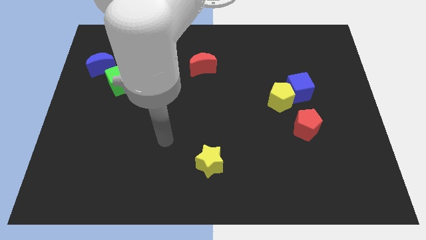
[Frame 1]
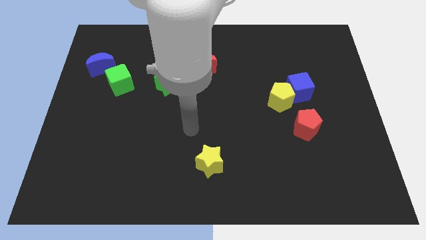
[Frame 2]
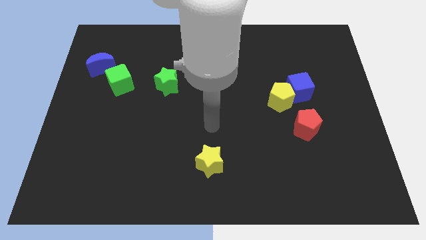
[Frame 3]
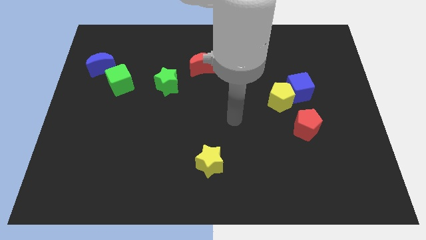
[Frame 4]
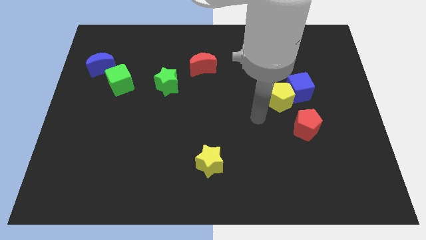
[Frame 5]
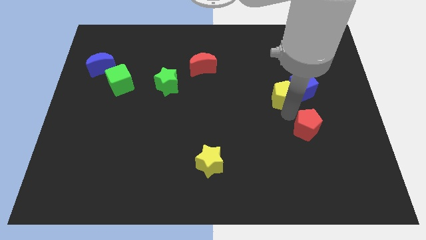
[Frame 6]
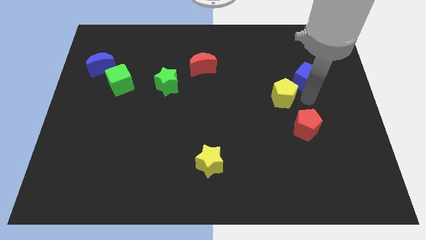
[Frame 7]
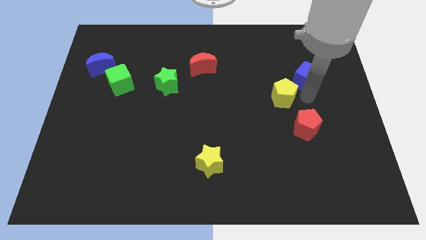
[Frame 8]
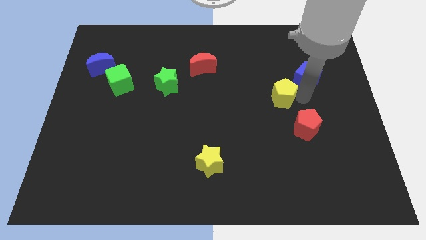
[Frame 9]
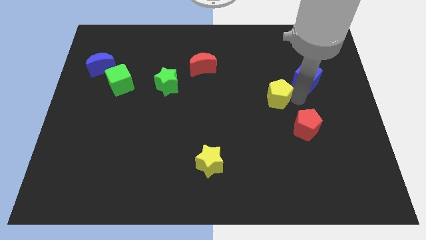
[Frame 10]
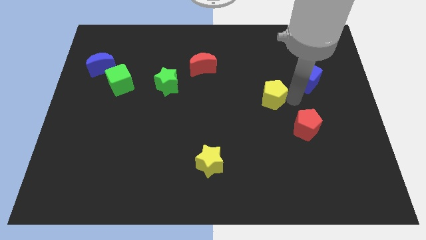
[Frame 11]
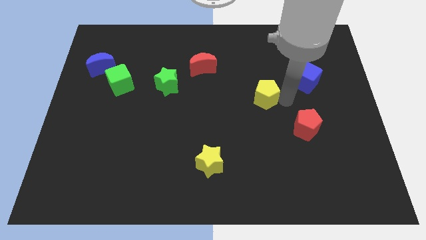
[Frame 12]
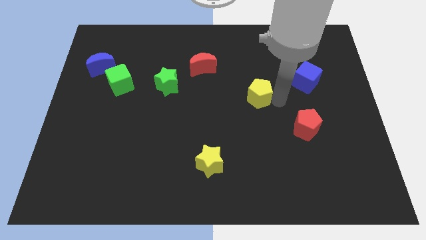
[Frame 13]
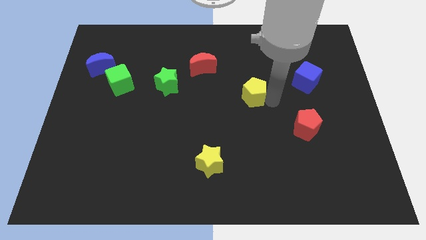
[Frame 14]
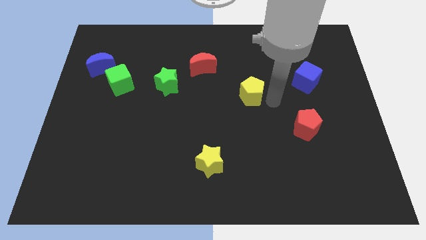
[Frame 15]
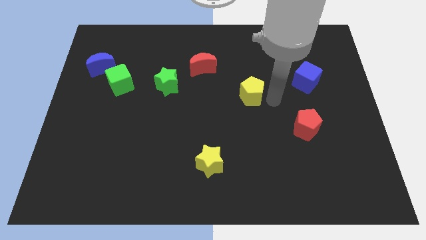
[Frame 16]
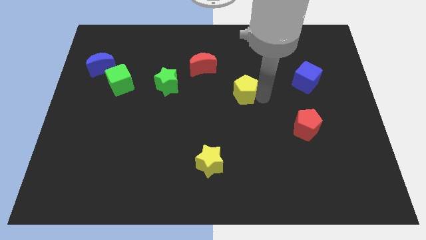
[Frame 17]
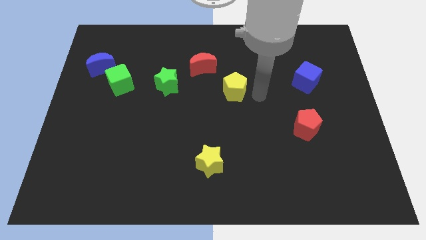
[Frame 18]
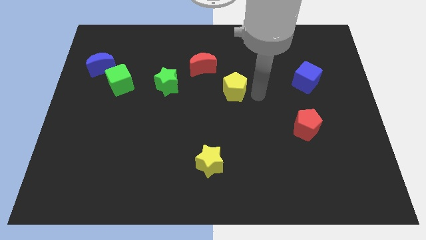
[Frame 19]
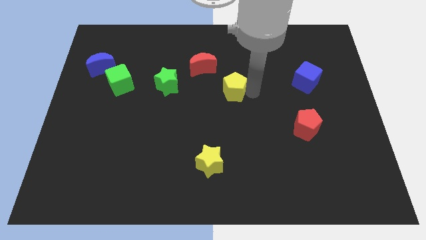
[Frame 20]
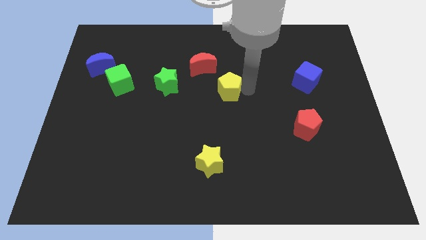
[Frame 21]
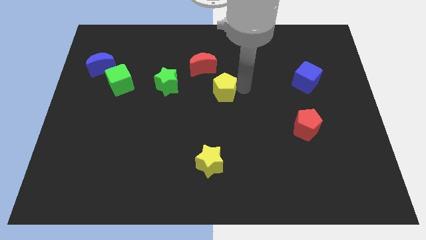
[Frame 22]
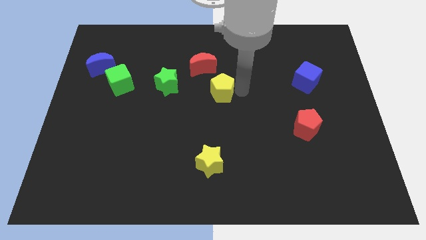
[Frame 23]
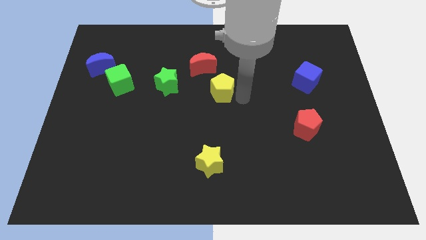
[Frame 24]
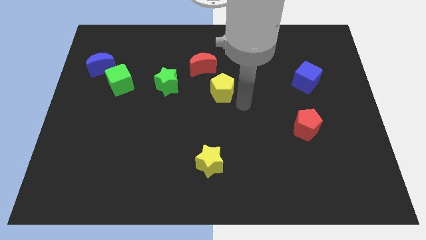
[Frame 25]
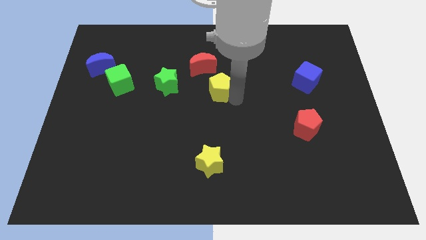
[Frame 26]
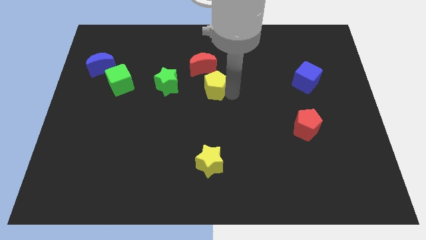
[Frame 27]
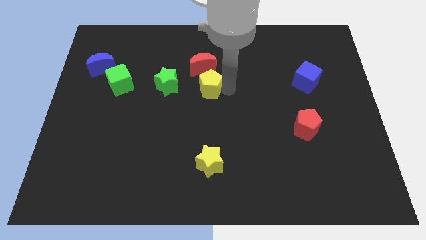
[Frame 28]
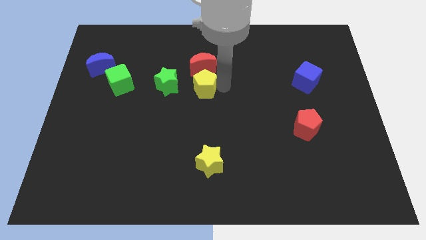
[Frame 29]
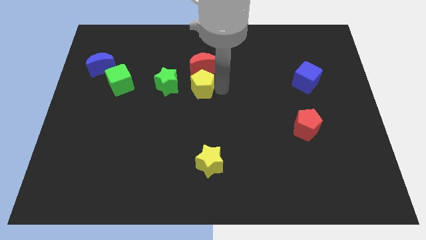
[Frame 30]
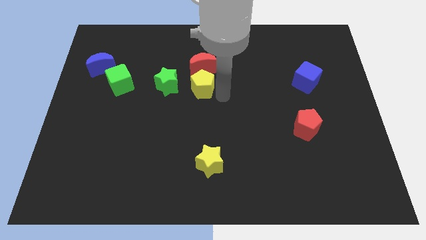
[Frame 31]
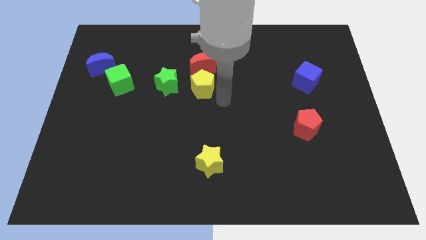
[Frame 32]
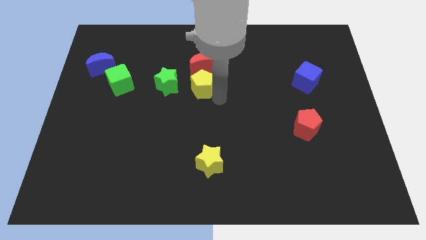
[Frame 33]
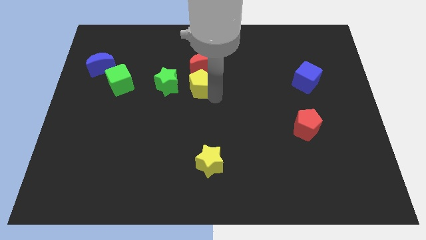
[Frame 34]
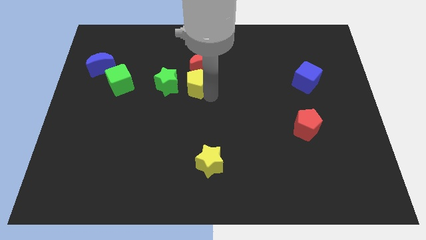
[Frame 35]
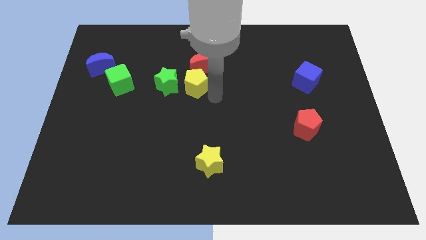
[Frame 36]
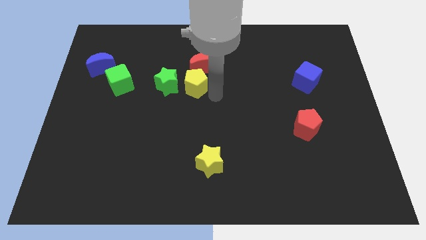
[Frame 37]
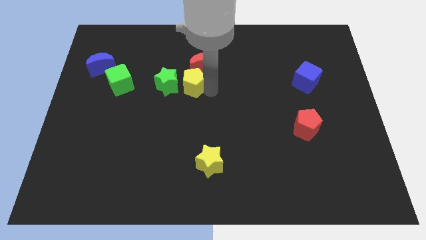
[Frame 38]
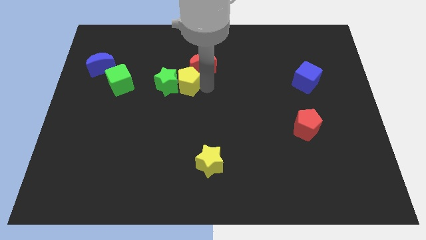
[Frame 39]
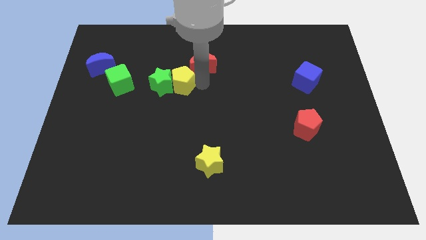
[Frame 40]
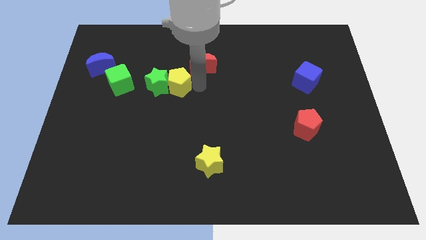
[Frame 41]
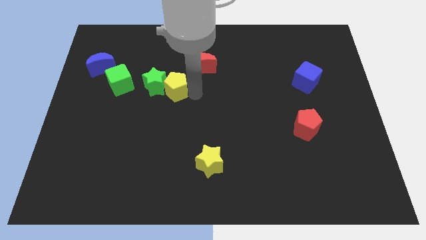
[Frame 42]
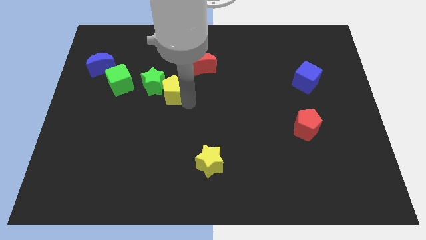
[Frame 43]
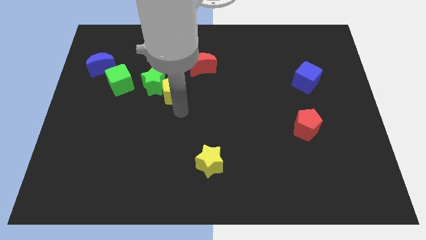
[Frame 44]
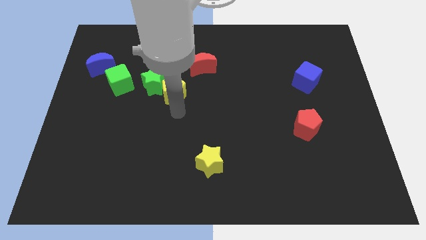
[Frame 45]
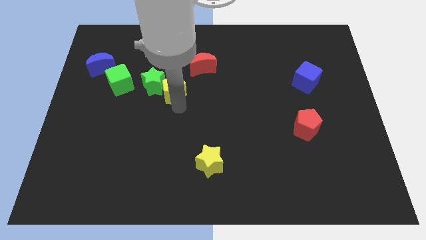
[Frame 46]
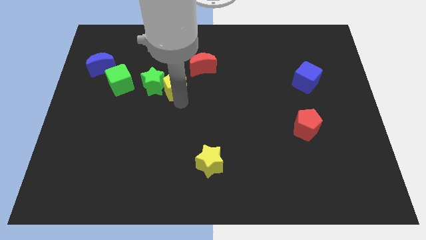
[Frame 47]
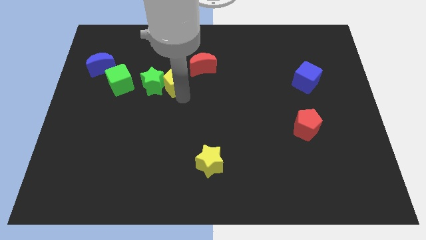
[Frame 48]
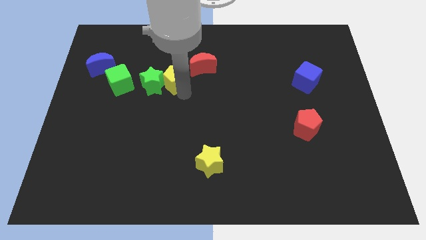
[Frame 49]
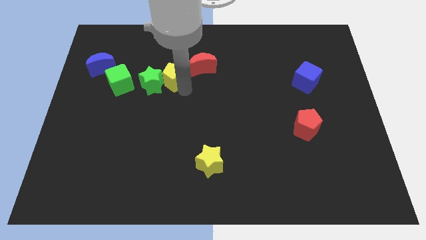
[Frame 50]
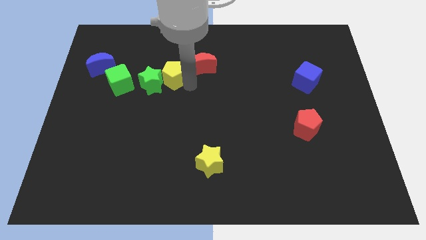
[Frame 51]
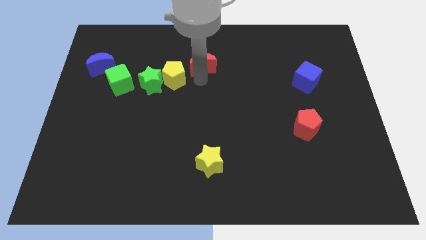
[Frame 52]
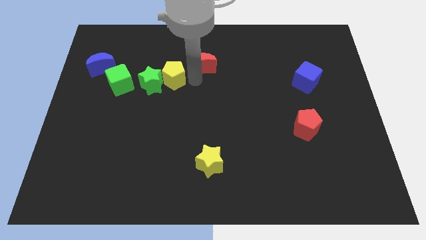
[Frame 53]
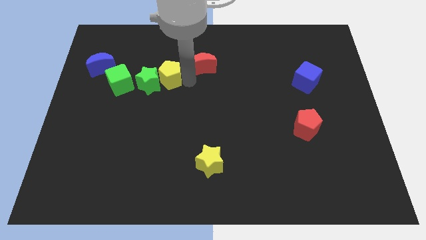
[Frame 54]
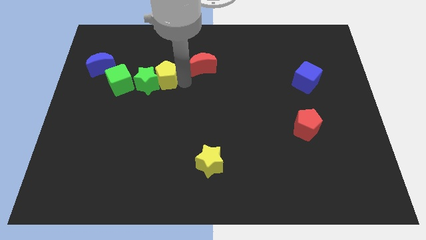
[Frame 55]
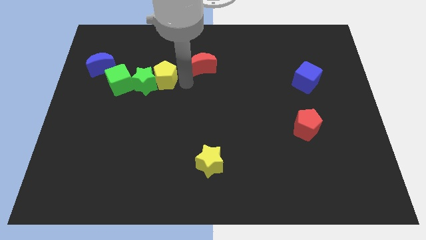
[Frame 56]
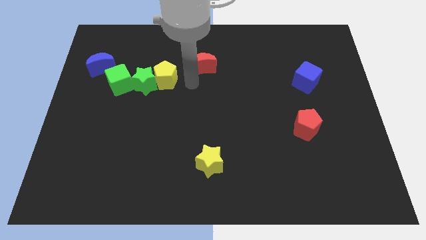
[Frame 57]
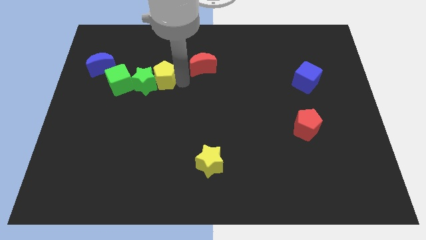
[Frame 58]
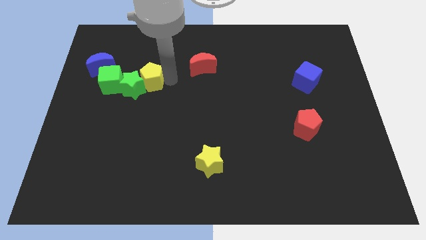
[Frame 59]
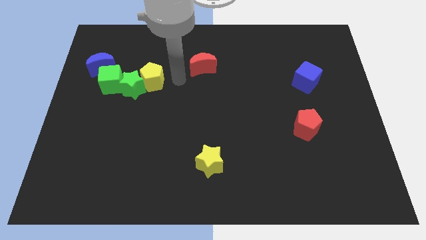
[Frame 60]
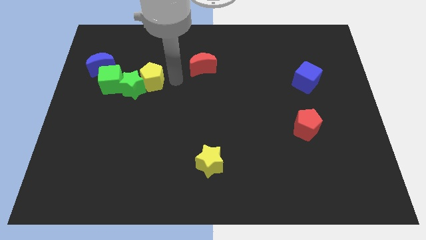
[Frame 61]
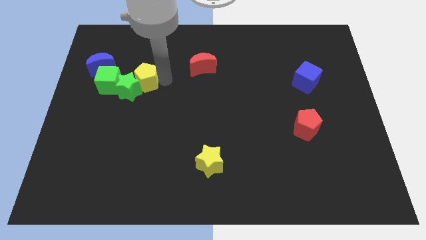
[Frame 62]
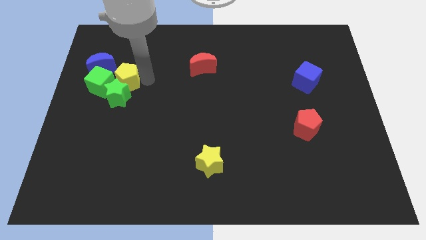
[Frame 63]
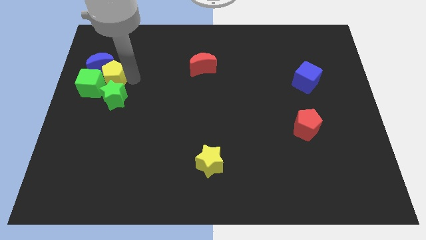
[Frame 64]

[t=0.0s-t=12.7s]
put the yellow pentagon next to the green cube

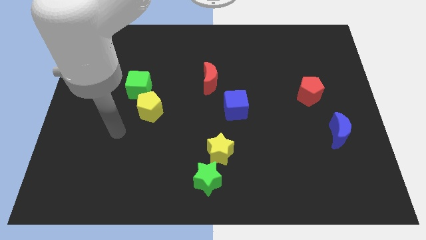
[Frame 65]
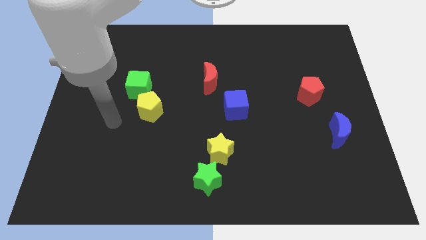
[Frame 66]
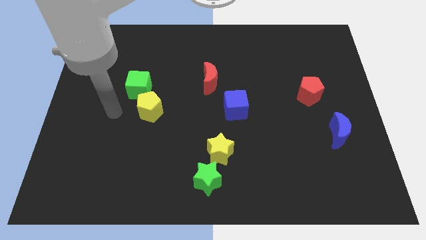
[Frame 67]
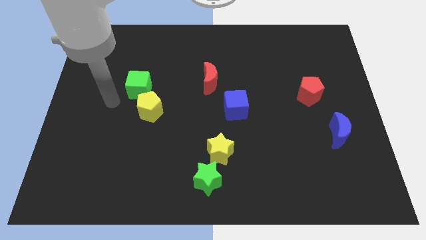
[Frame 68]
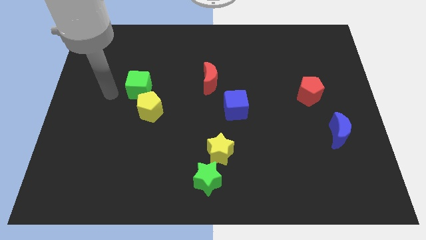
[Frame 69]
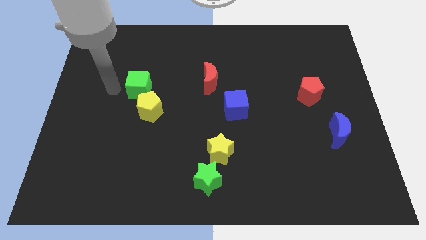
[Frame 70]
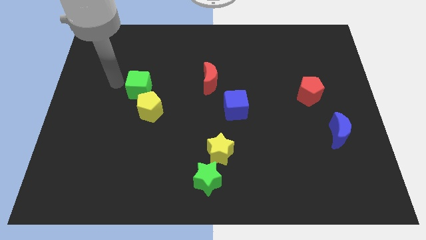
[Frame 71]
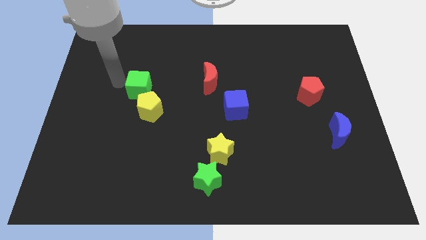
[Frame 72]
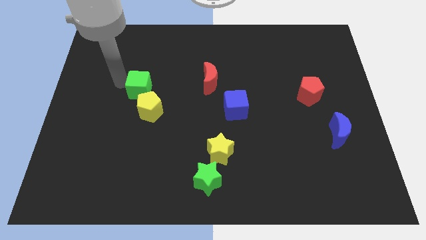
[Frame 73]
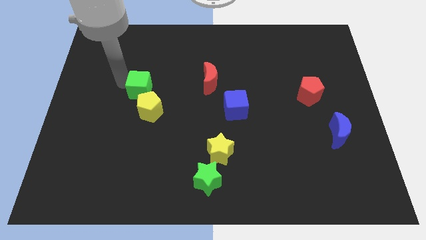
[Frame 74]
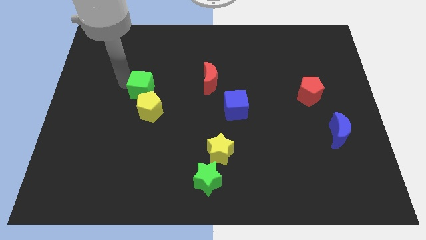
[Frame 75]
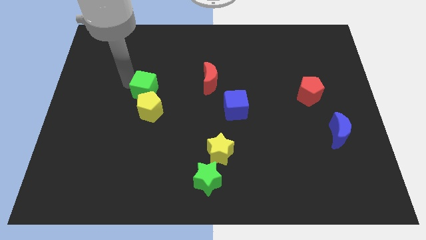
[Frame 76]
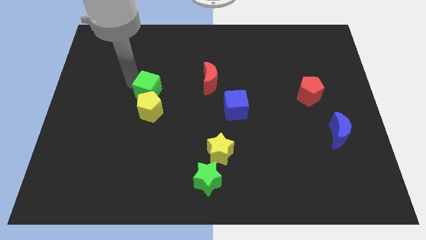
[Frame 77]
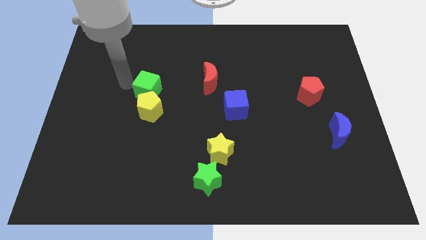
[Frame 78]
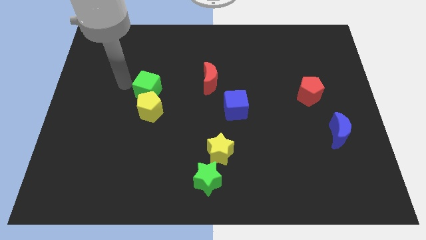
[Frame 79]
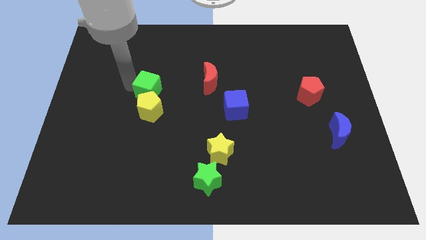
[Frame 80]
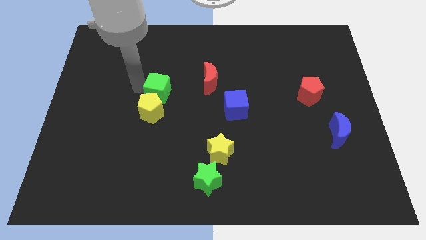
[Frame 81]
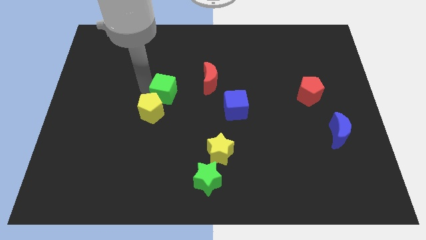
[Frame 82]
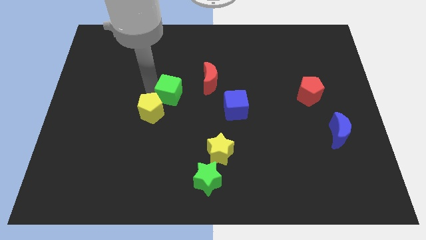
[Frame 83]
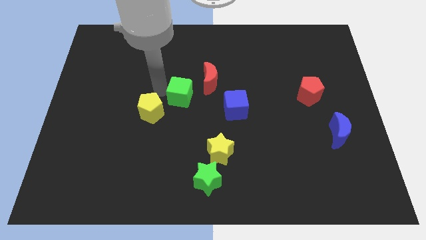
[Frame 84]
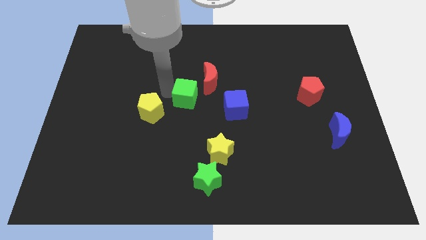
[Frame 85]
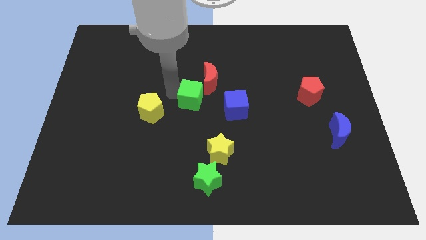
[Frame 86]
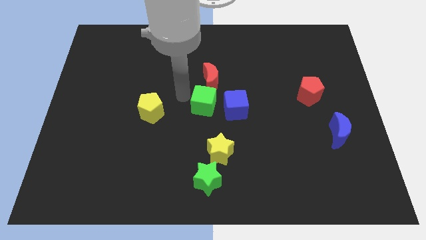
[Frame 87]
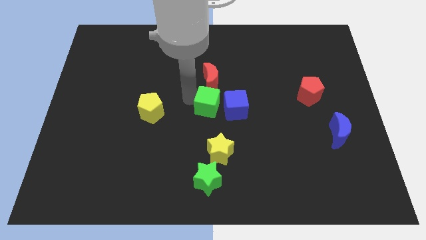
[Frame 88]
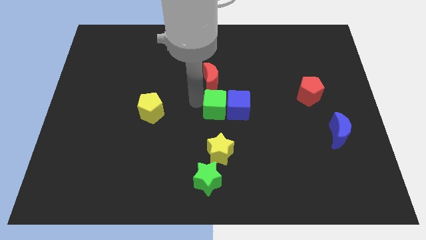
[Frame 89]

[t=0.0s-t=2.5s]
move the green cube next to the blue cube
